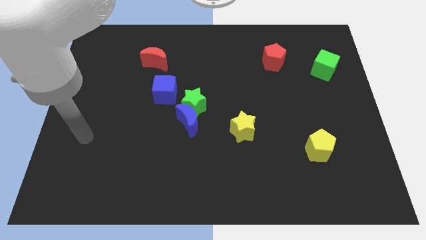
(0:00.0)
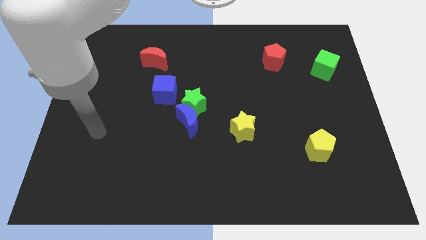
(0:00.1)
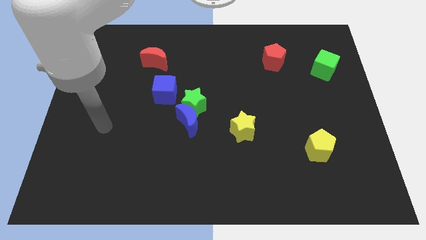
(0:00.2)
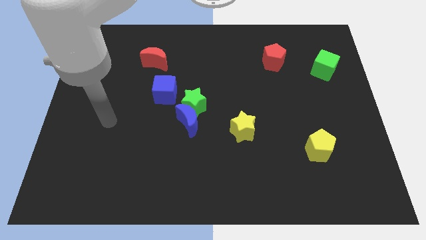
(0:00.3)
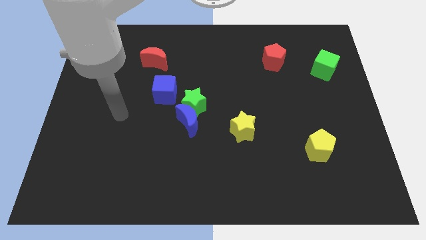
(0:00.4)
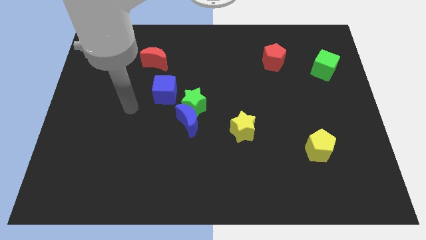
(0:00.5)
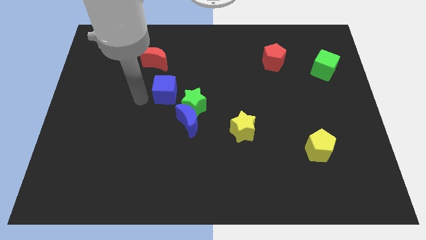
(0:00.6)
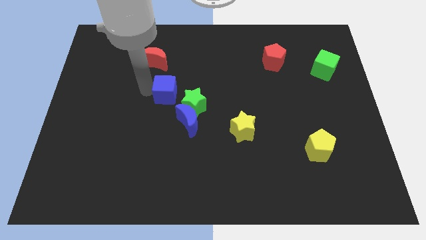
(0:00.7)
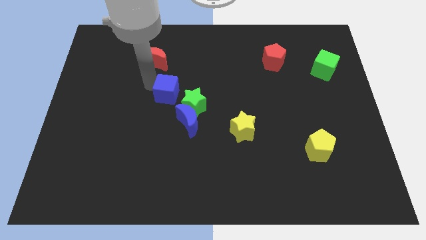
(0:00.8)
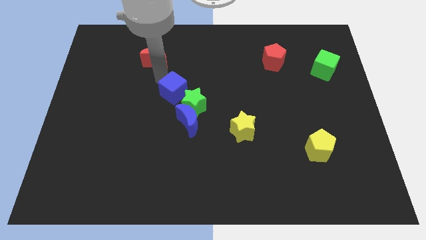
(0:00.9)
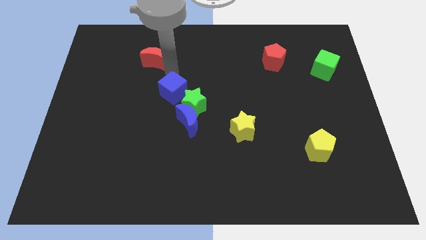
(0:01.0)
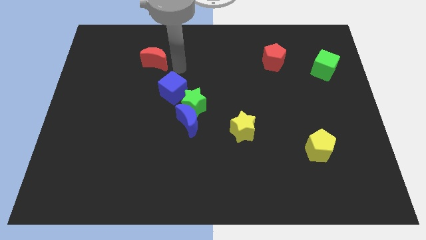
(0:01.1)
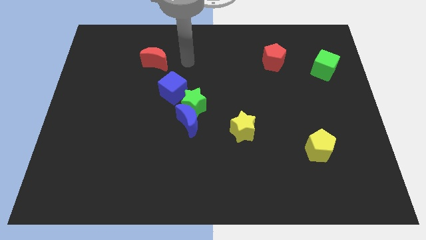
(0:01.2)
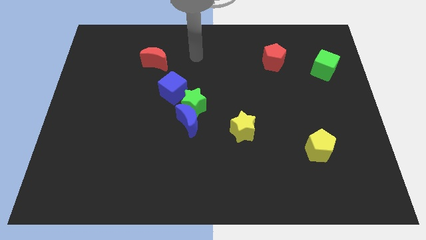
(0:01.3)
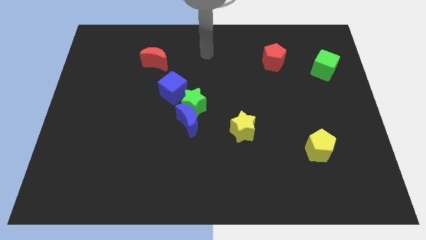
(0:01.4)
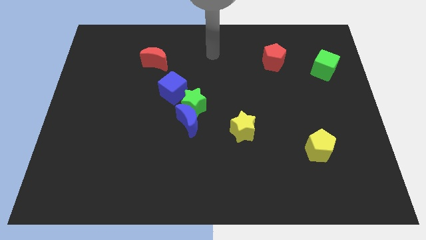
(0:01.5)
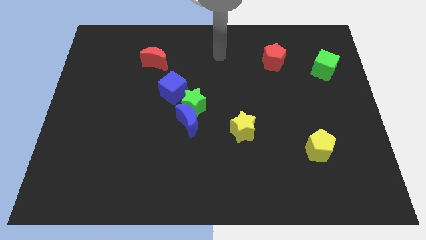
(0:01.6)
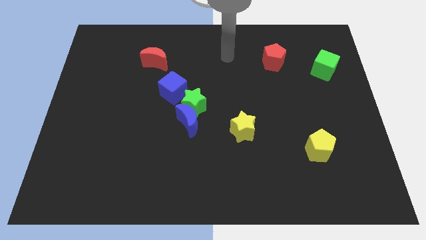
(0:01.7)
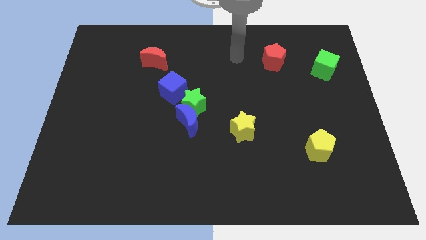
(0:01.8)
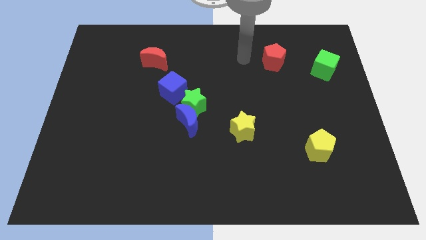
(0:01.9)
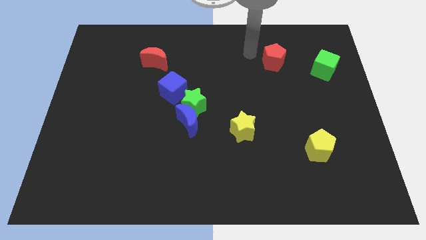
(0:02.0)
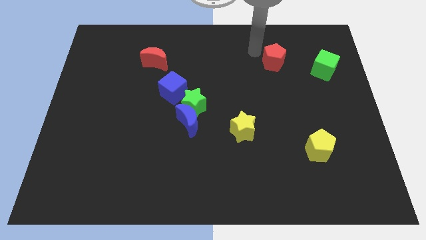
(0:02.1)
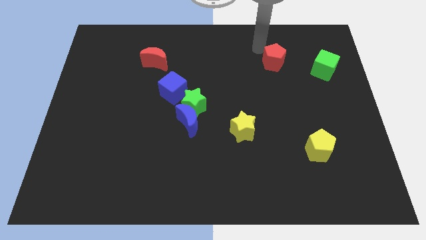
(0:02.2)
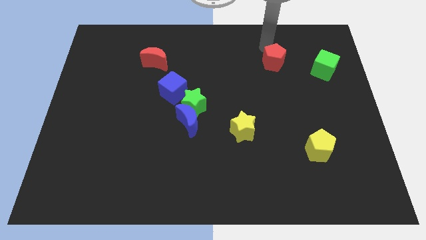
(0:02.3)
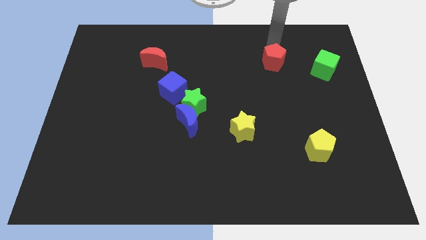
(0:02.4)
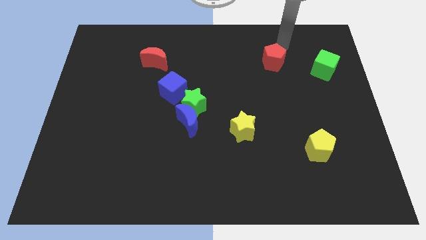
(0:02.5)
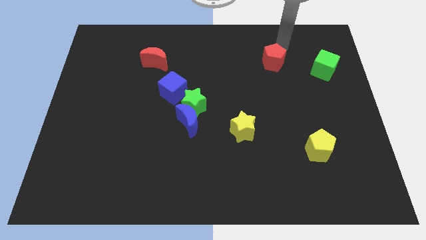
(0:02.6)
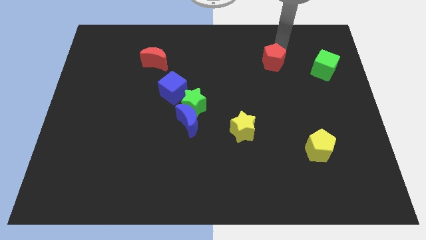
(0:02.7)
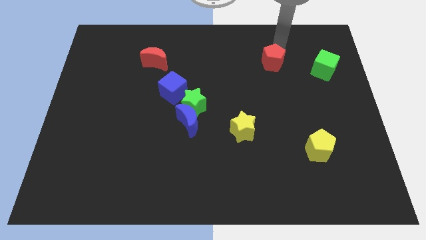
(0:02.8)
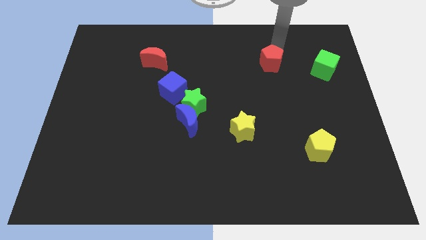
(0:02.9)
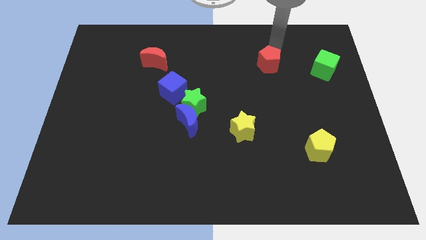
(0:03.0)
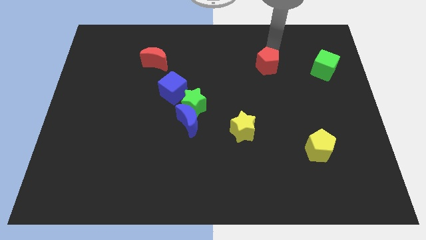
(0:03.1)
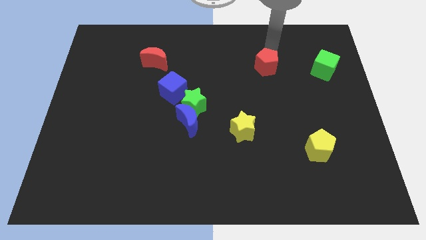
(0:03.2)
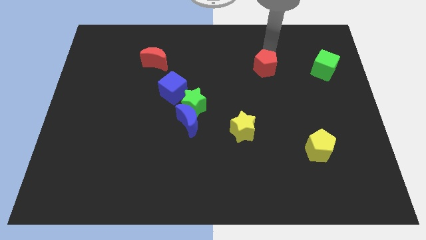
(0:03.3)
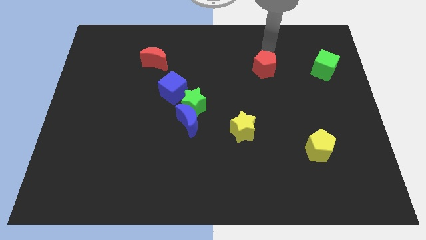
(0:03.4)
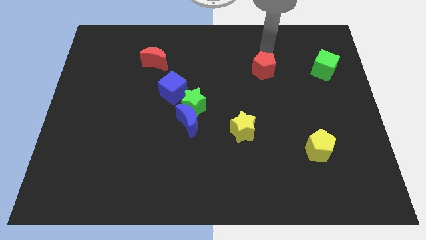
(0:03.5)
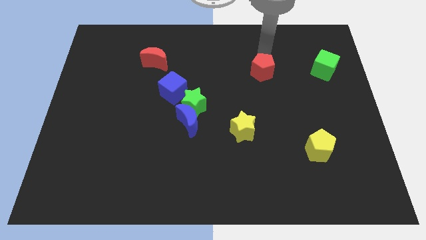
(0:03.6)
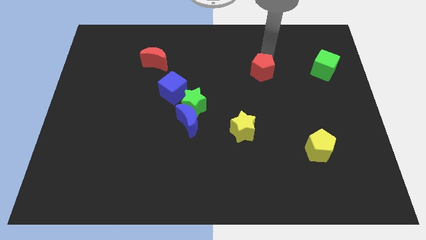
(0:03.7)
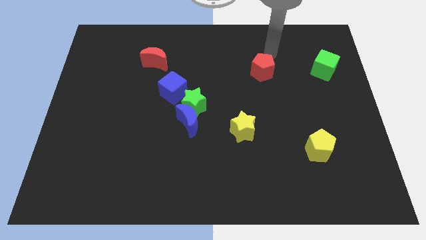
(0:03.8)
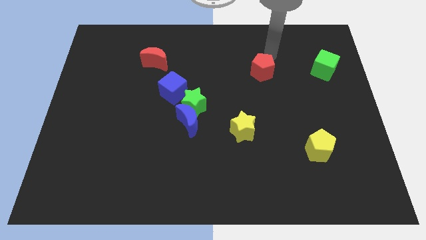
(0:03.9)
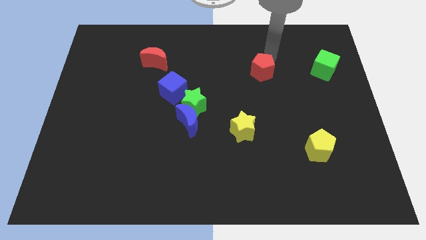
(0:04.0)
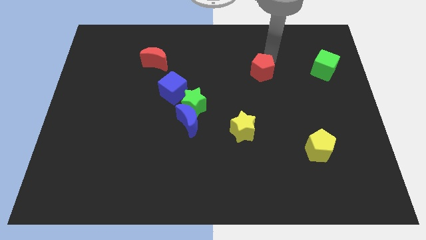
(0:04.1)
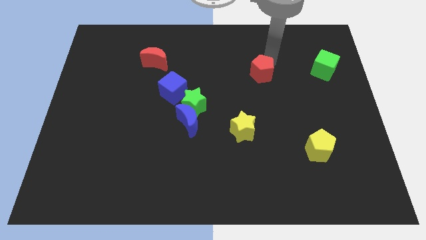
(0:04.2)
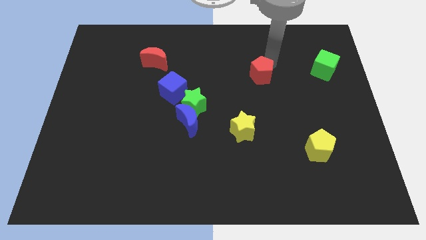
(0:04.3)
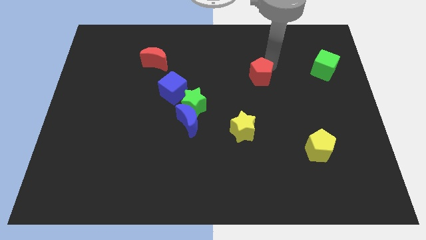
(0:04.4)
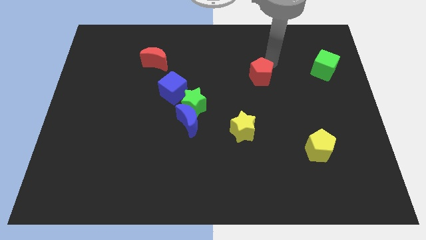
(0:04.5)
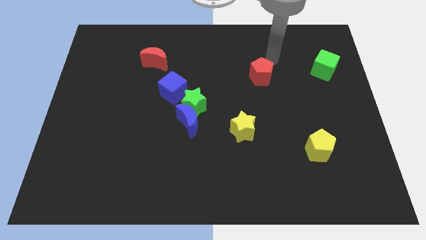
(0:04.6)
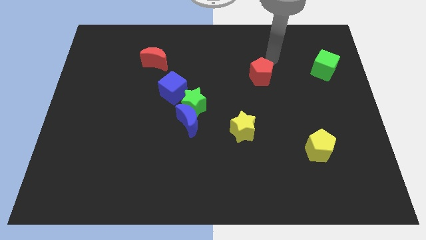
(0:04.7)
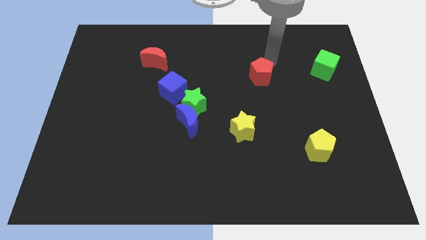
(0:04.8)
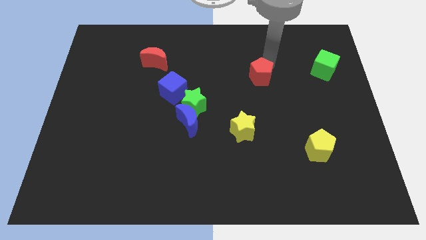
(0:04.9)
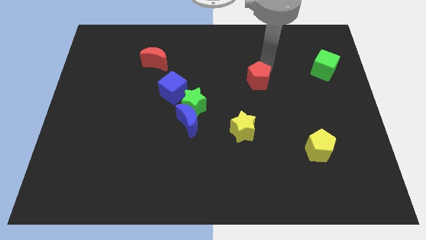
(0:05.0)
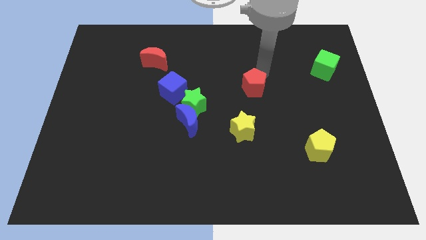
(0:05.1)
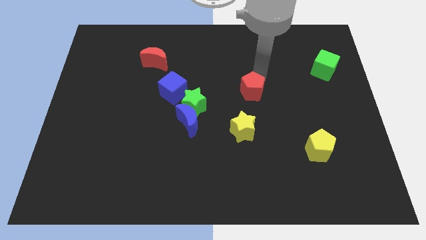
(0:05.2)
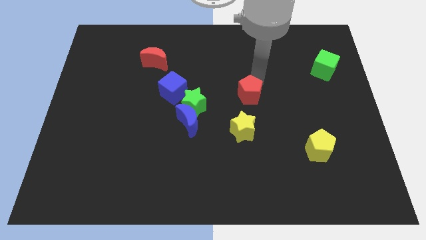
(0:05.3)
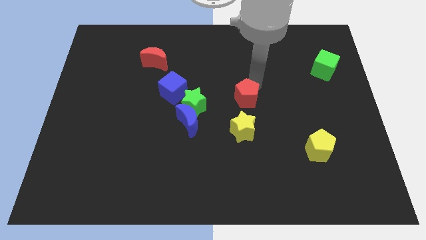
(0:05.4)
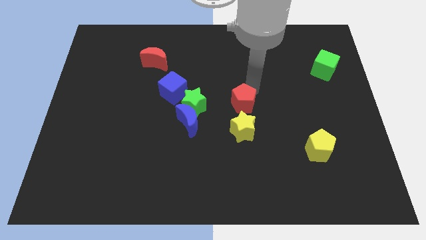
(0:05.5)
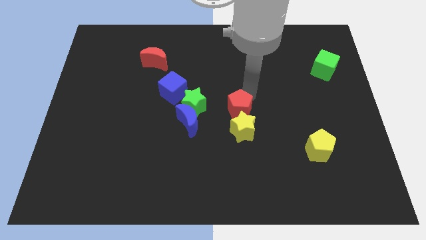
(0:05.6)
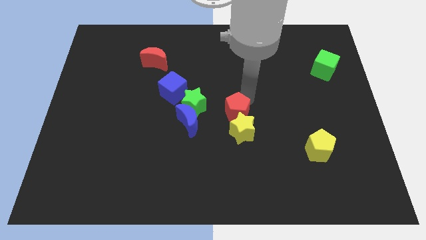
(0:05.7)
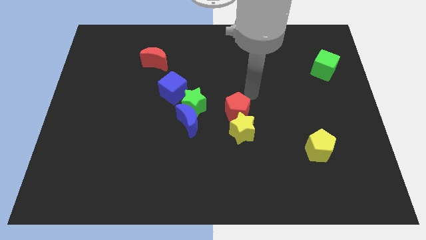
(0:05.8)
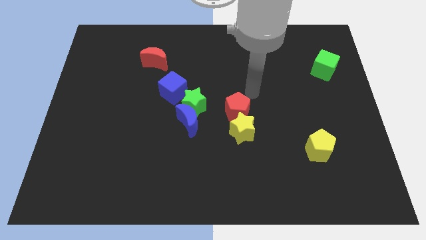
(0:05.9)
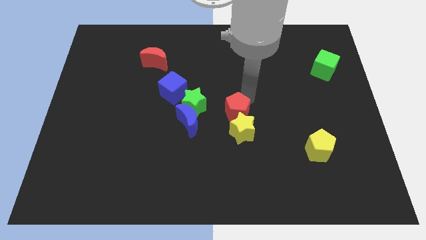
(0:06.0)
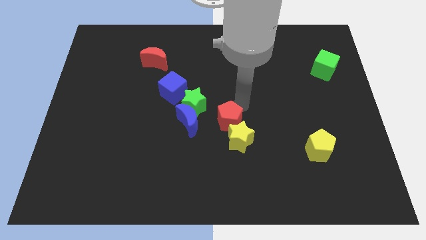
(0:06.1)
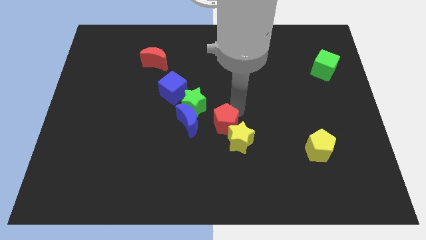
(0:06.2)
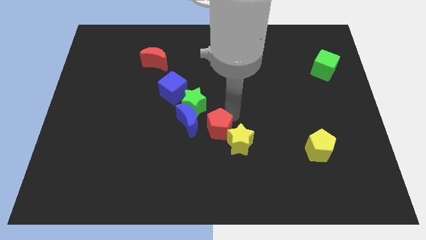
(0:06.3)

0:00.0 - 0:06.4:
move the red pentagon to the bottom right side of the blue moon

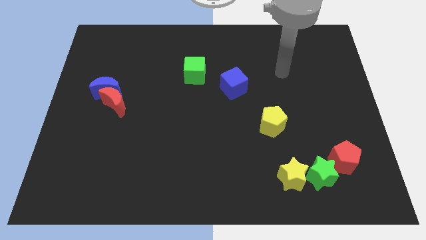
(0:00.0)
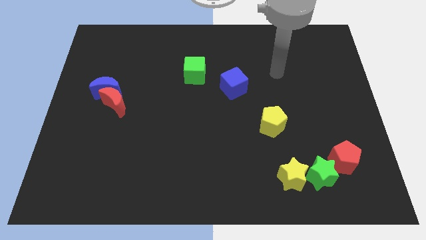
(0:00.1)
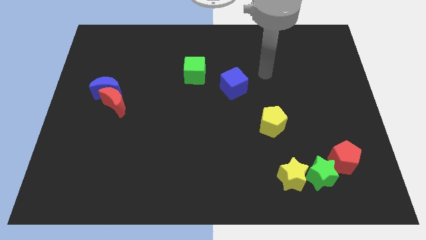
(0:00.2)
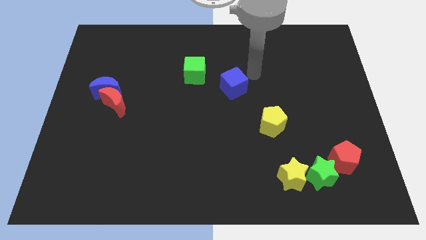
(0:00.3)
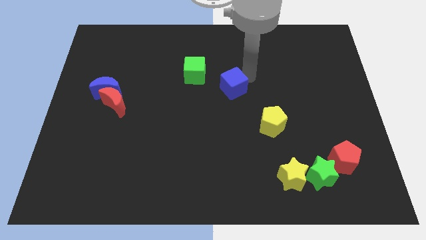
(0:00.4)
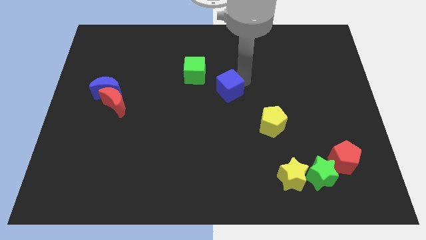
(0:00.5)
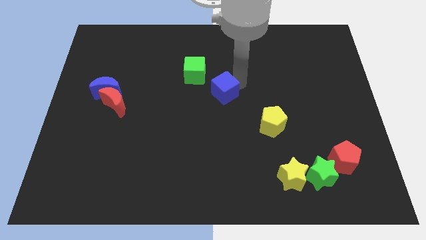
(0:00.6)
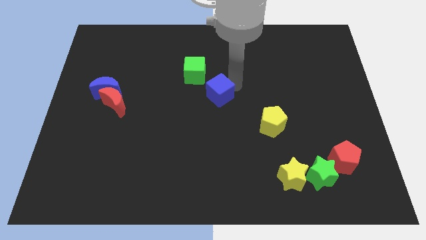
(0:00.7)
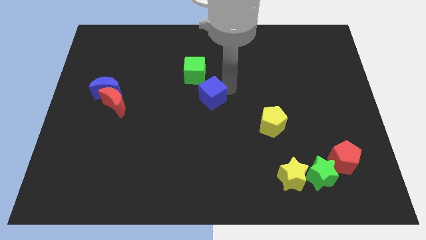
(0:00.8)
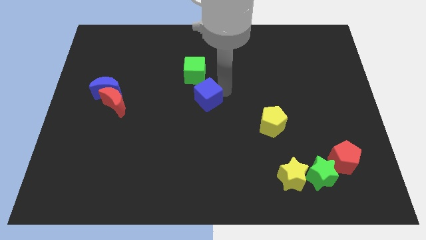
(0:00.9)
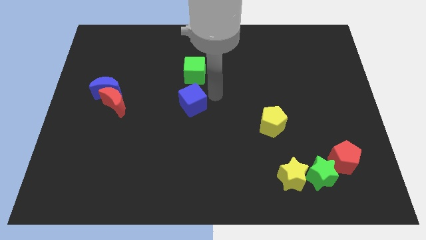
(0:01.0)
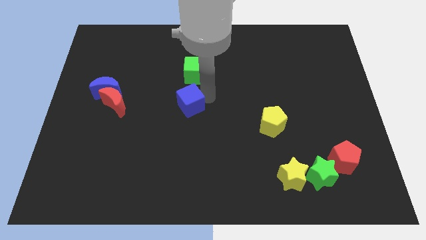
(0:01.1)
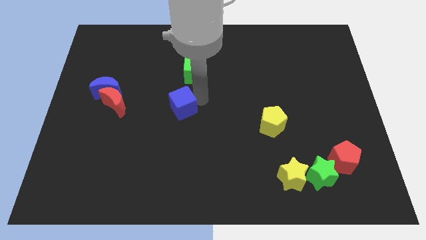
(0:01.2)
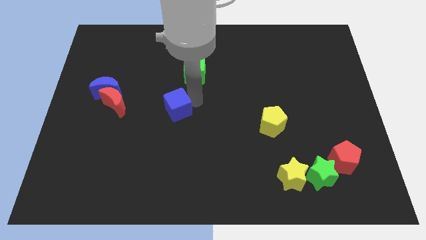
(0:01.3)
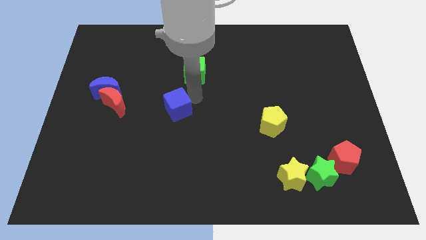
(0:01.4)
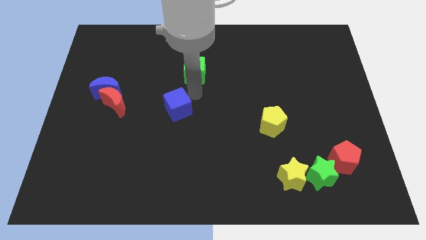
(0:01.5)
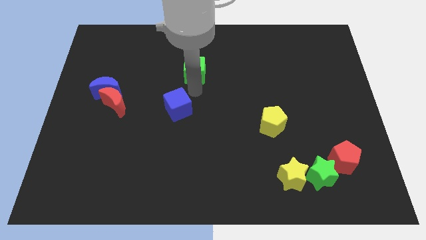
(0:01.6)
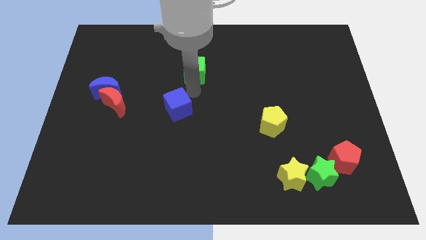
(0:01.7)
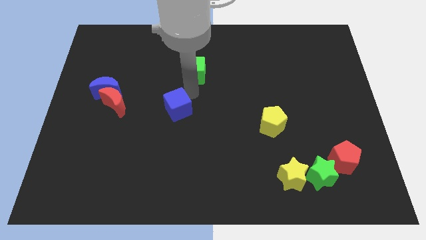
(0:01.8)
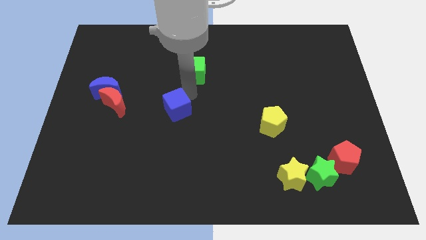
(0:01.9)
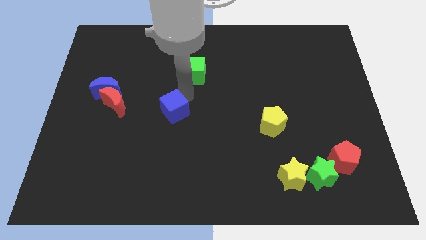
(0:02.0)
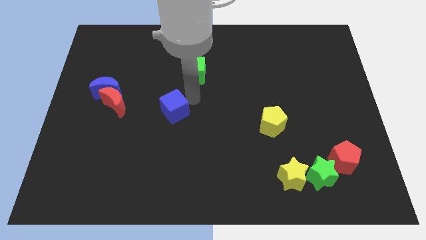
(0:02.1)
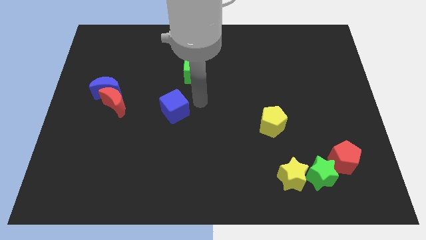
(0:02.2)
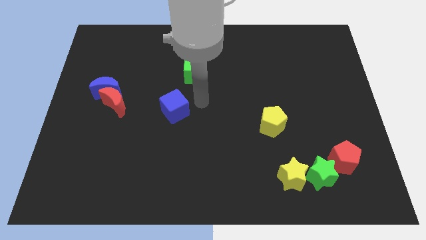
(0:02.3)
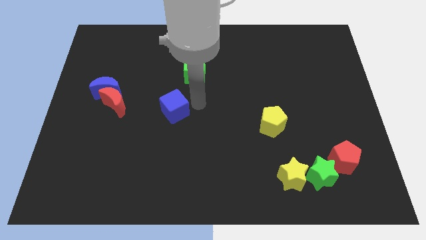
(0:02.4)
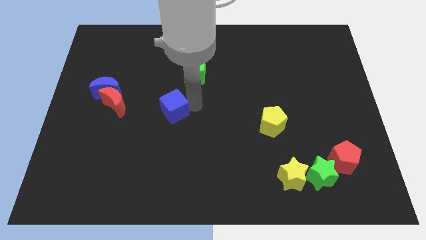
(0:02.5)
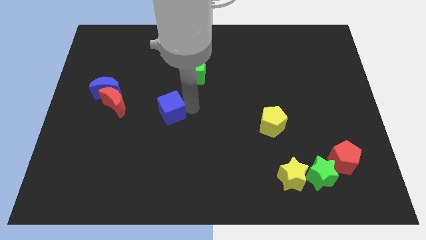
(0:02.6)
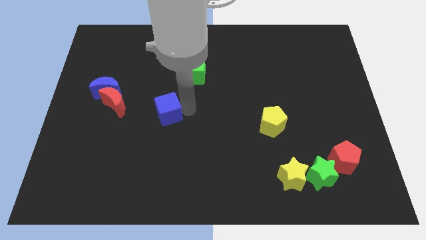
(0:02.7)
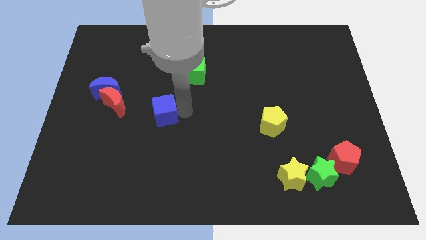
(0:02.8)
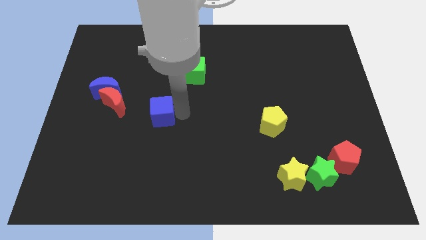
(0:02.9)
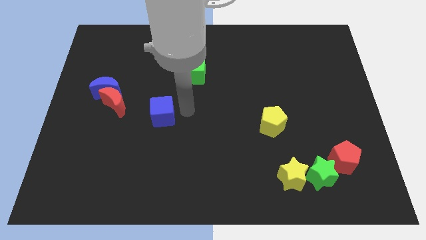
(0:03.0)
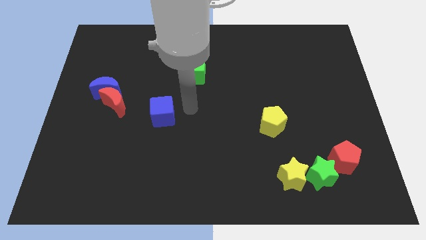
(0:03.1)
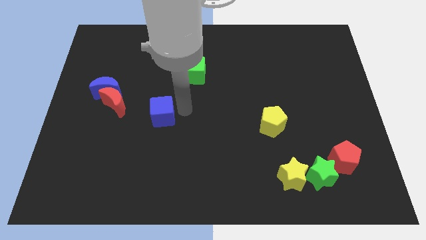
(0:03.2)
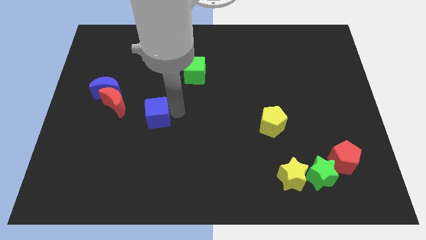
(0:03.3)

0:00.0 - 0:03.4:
move the blue cube diagonally down and to the right of the red moon
